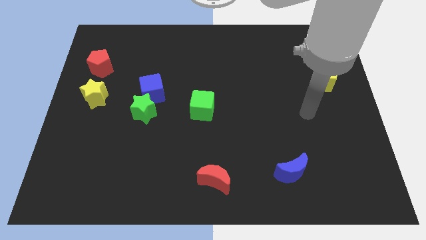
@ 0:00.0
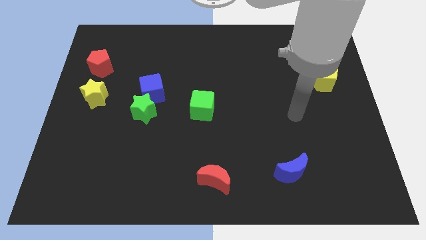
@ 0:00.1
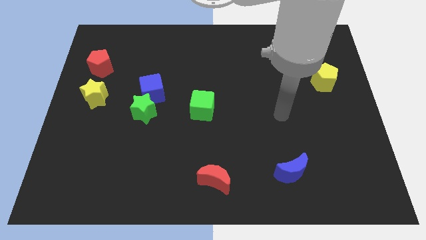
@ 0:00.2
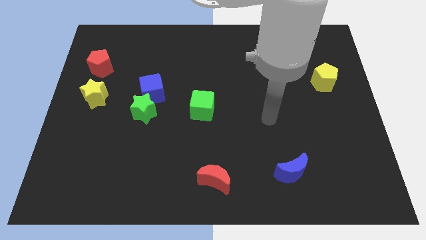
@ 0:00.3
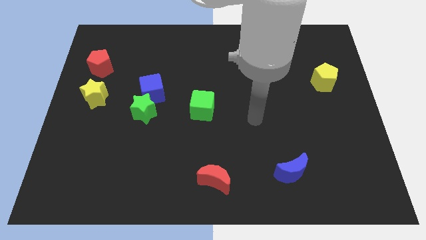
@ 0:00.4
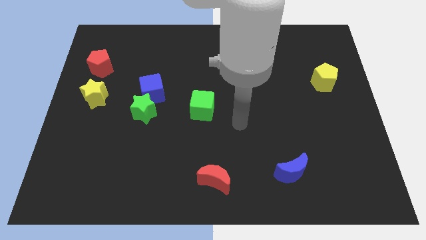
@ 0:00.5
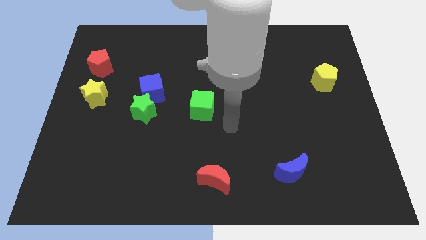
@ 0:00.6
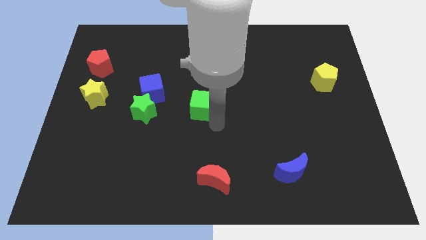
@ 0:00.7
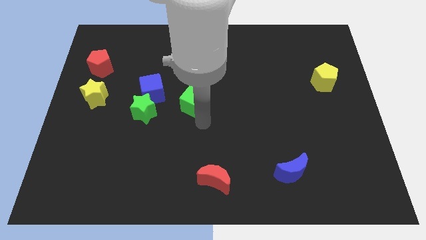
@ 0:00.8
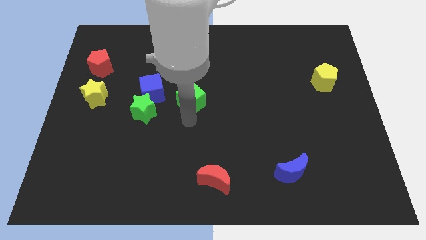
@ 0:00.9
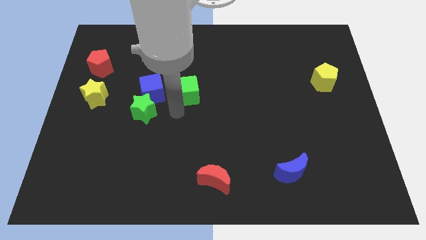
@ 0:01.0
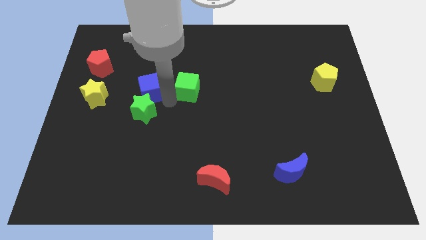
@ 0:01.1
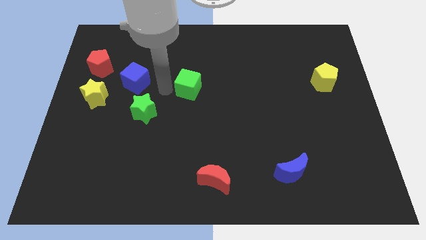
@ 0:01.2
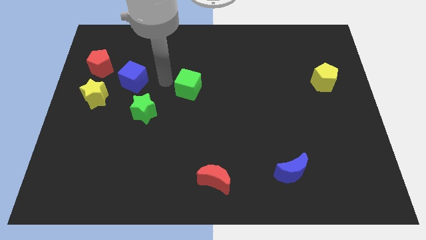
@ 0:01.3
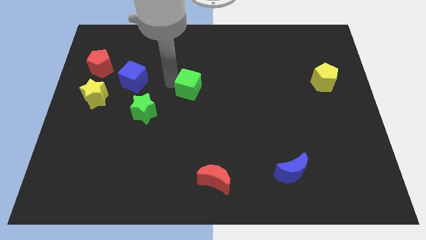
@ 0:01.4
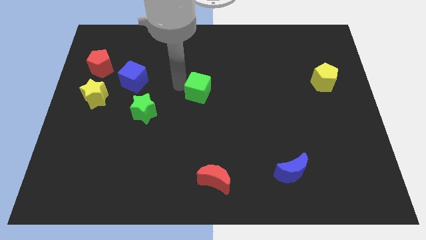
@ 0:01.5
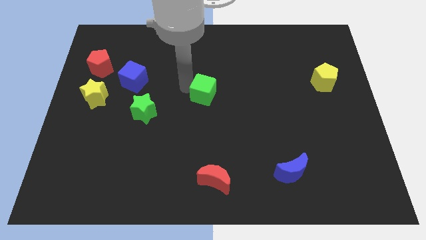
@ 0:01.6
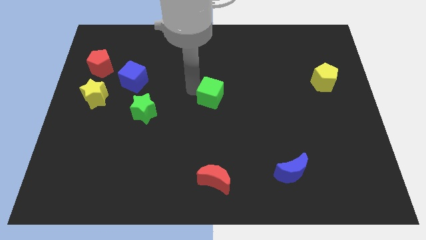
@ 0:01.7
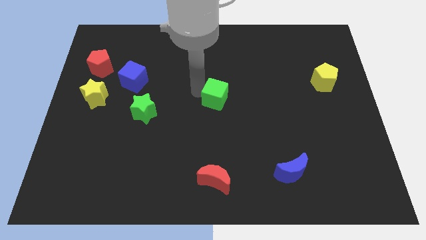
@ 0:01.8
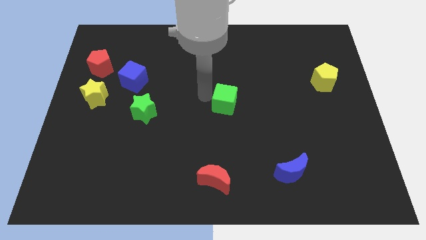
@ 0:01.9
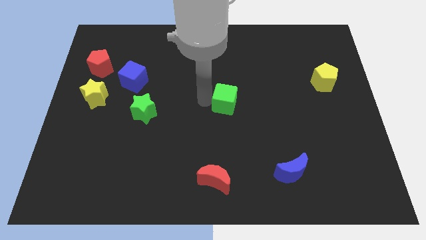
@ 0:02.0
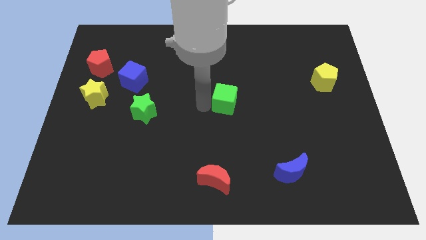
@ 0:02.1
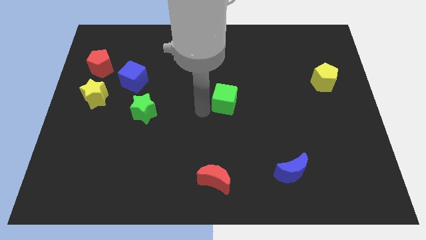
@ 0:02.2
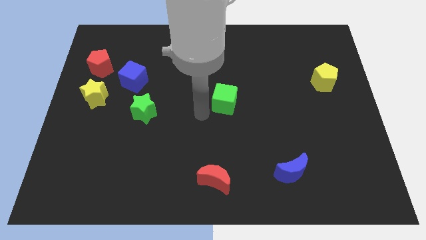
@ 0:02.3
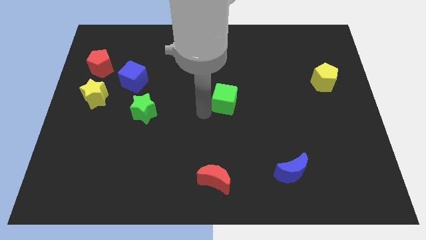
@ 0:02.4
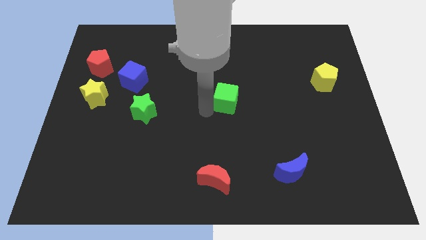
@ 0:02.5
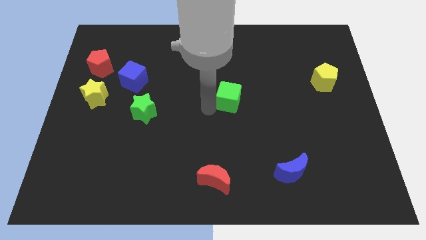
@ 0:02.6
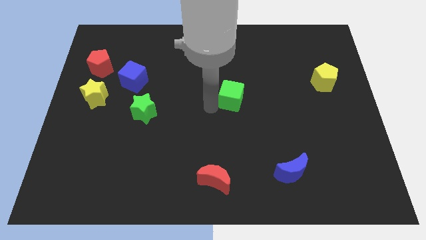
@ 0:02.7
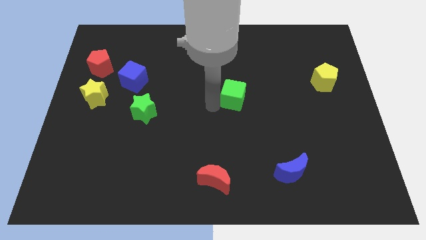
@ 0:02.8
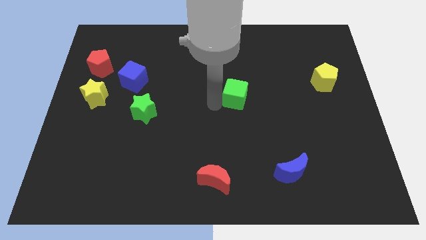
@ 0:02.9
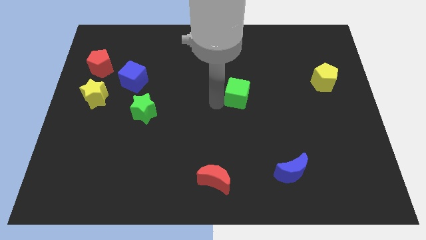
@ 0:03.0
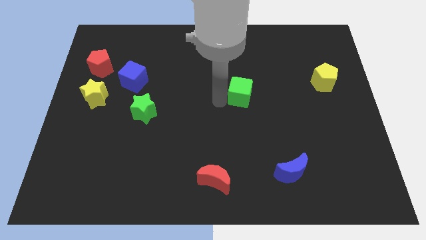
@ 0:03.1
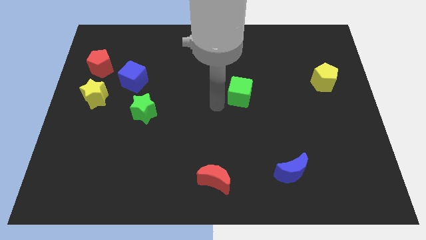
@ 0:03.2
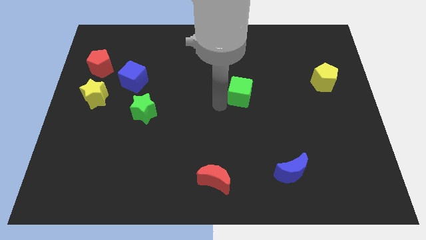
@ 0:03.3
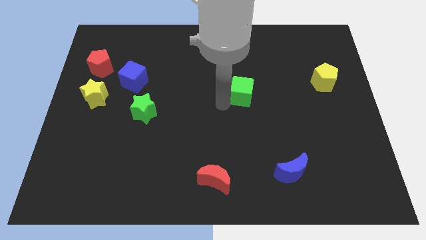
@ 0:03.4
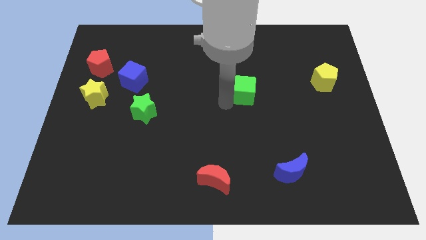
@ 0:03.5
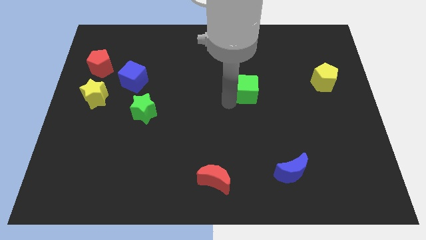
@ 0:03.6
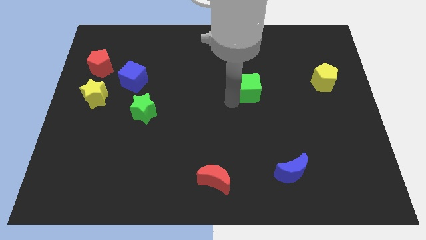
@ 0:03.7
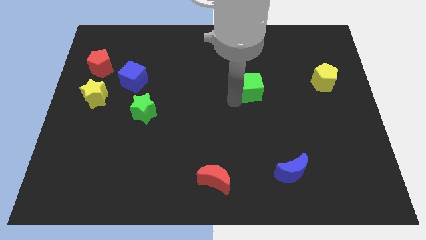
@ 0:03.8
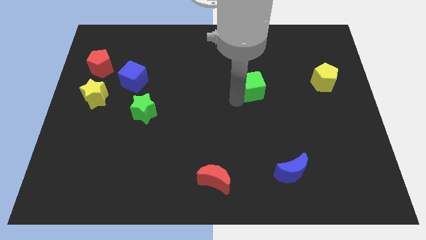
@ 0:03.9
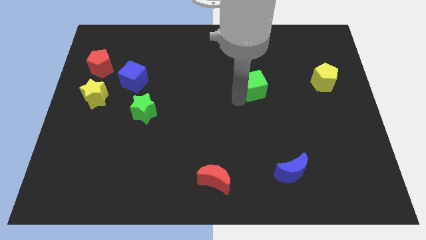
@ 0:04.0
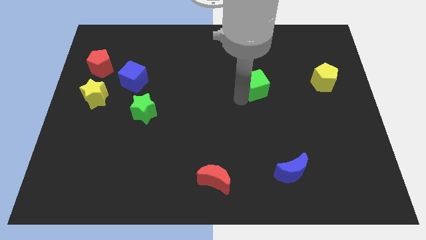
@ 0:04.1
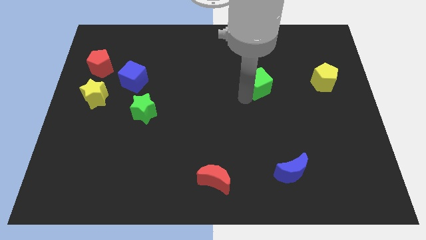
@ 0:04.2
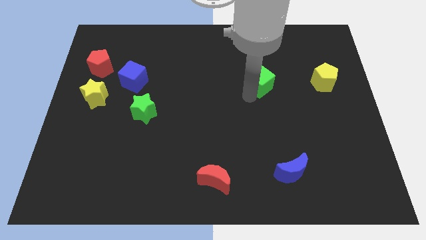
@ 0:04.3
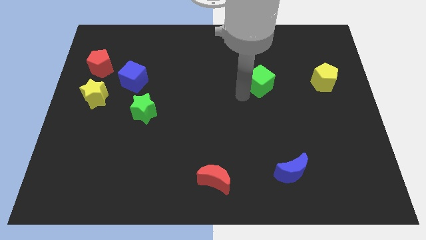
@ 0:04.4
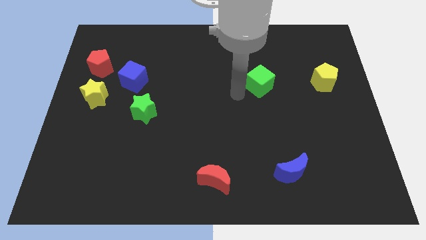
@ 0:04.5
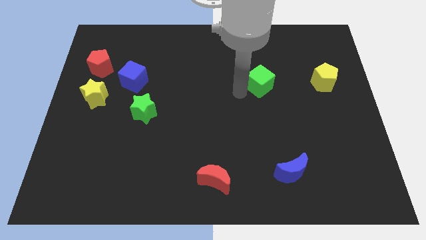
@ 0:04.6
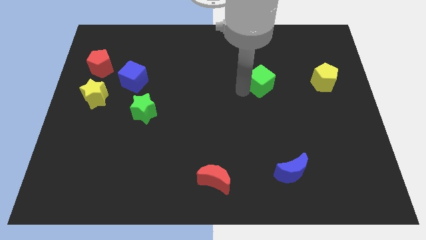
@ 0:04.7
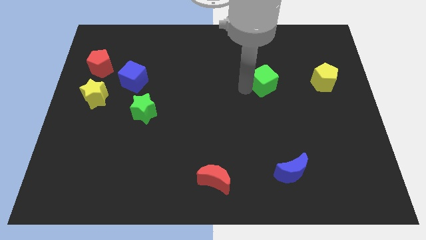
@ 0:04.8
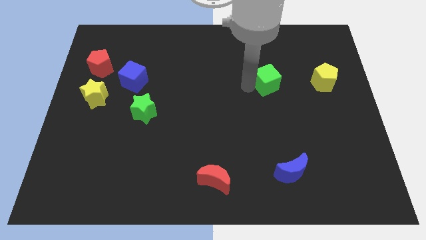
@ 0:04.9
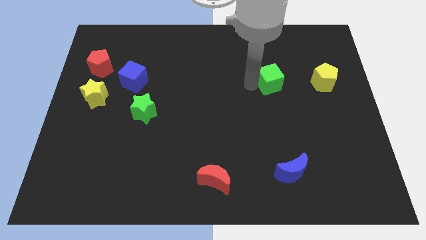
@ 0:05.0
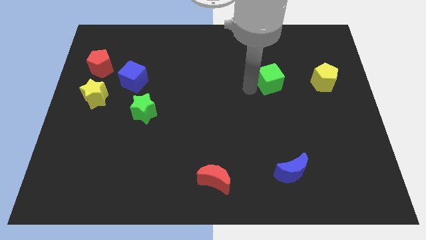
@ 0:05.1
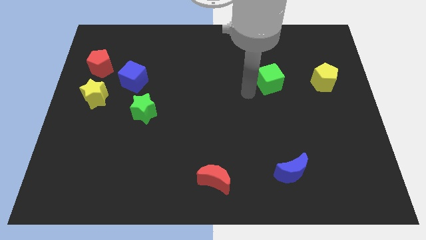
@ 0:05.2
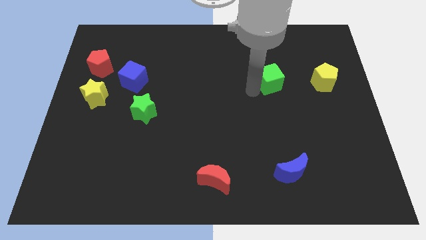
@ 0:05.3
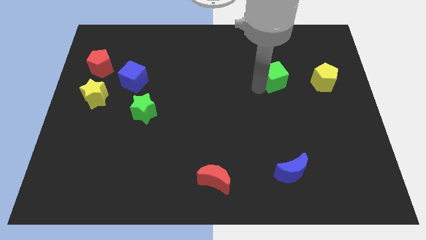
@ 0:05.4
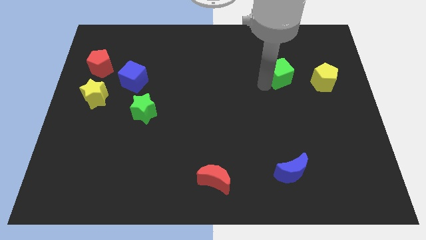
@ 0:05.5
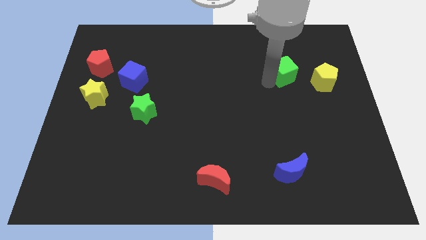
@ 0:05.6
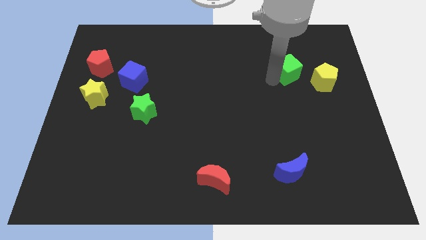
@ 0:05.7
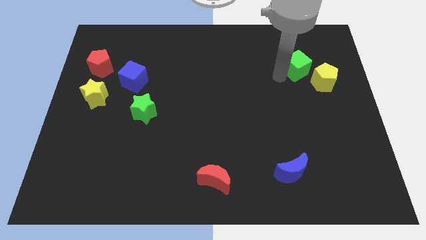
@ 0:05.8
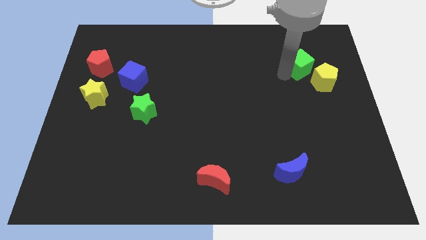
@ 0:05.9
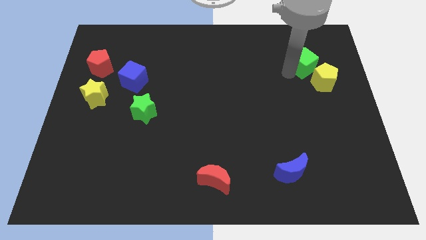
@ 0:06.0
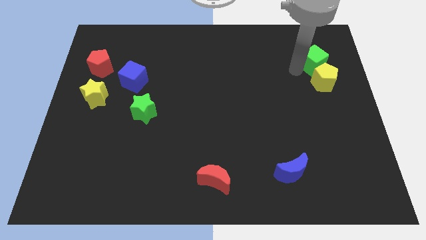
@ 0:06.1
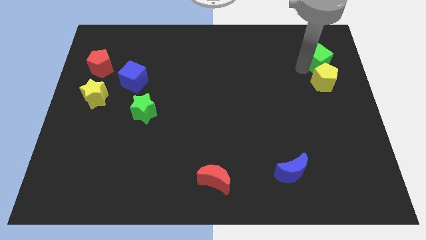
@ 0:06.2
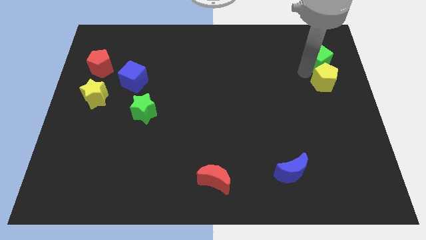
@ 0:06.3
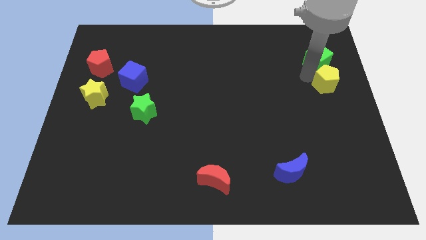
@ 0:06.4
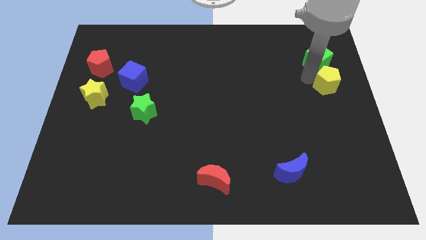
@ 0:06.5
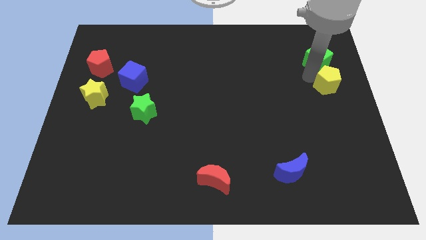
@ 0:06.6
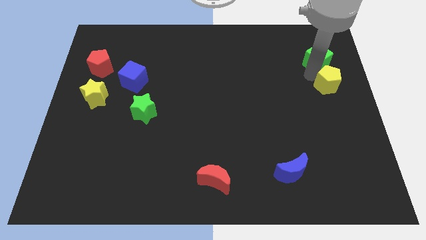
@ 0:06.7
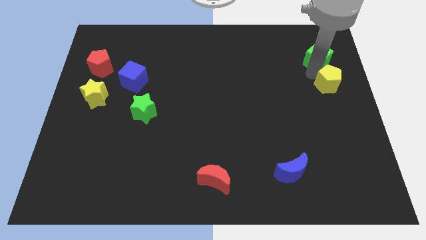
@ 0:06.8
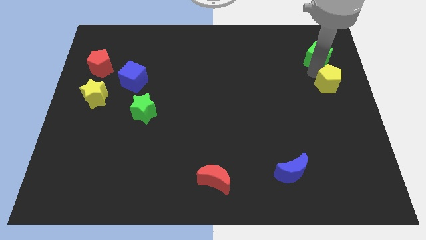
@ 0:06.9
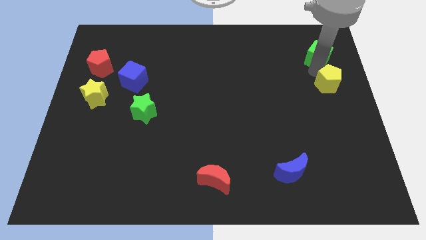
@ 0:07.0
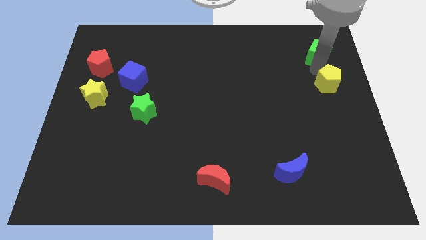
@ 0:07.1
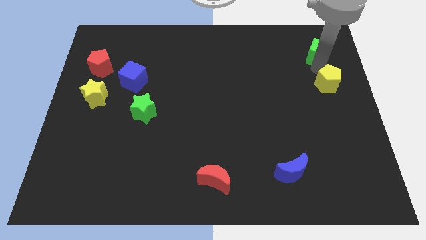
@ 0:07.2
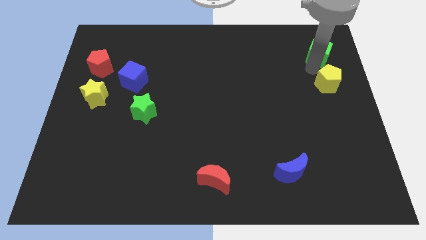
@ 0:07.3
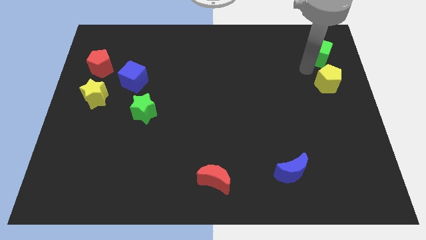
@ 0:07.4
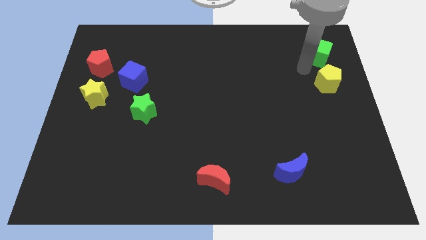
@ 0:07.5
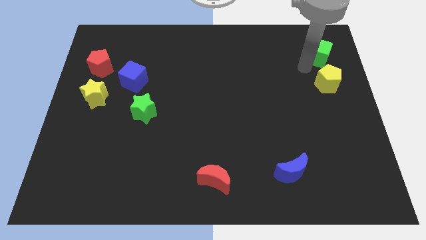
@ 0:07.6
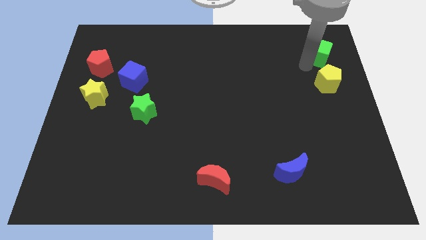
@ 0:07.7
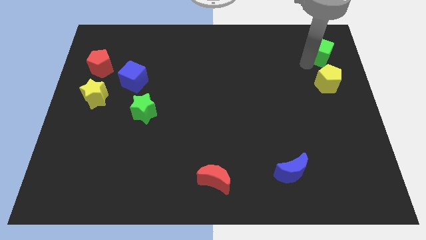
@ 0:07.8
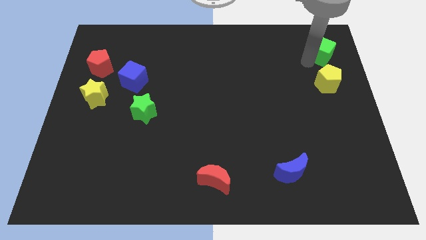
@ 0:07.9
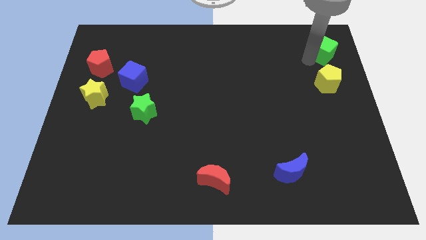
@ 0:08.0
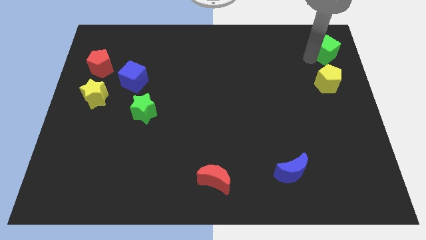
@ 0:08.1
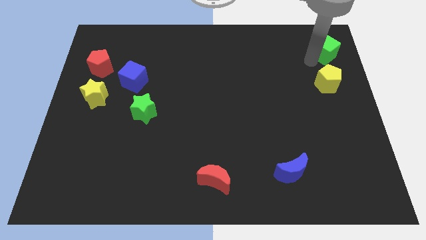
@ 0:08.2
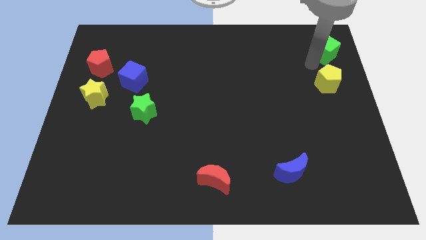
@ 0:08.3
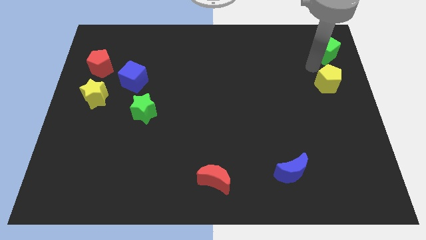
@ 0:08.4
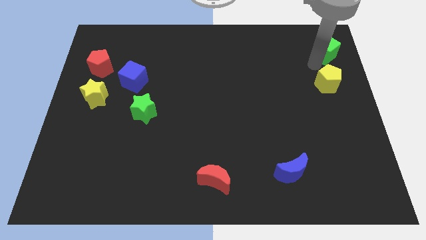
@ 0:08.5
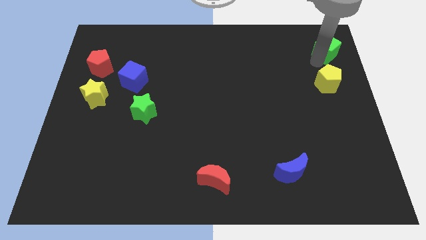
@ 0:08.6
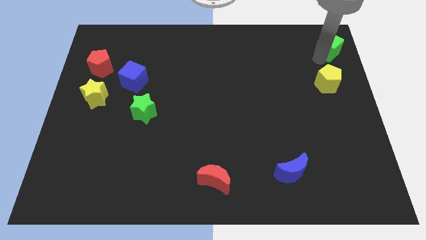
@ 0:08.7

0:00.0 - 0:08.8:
slide the green cube to the top right corner
